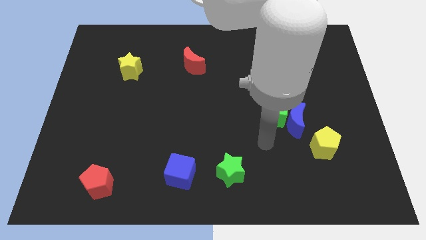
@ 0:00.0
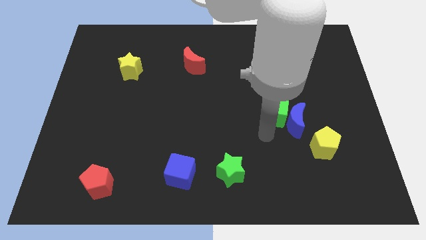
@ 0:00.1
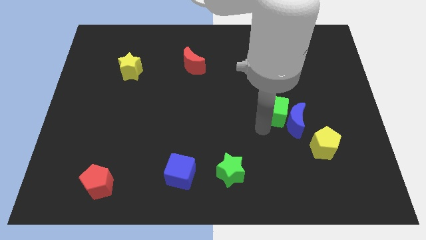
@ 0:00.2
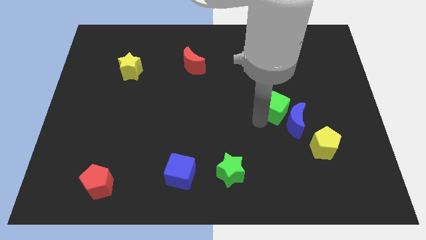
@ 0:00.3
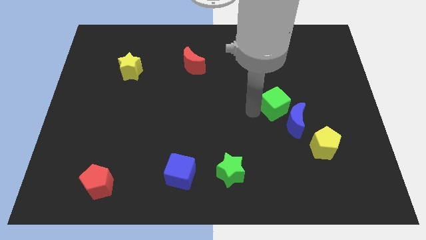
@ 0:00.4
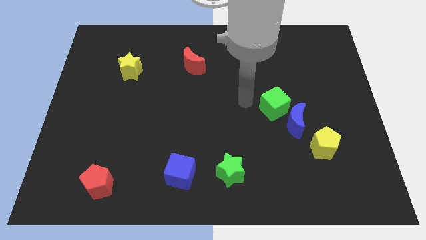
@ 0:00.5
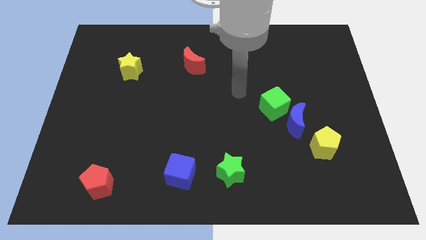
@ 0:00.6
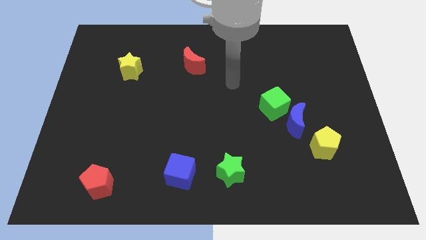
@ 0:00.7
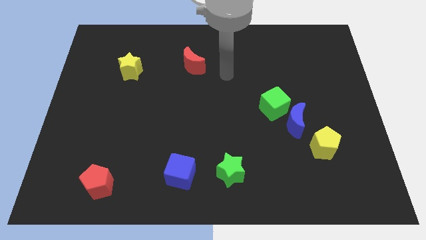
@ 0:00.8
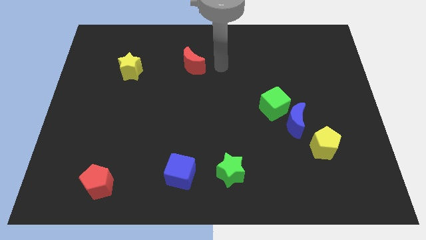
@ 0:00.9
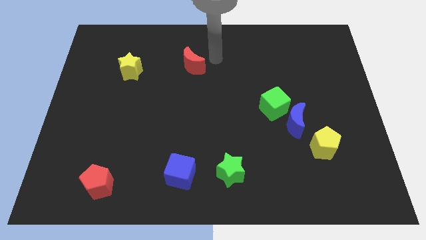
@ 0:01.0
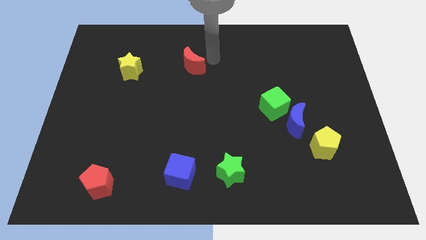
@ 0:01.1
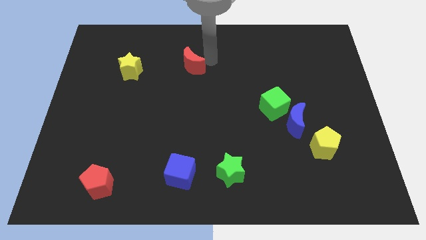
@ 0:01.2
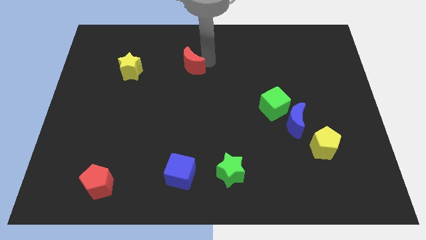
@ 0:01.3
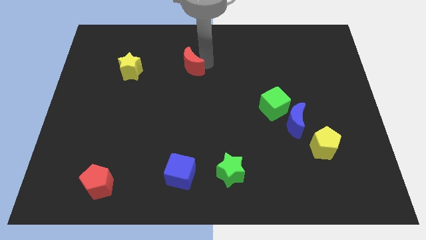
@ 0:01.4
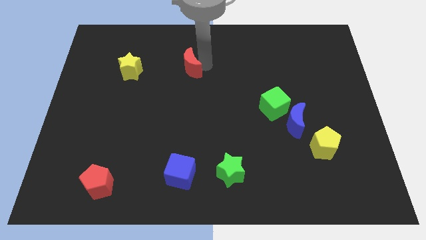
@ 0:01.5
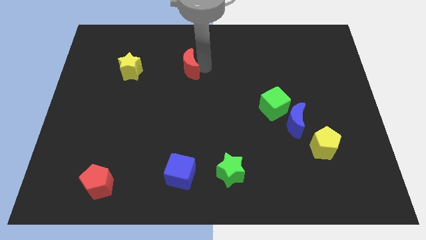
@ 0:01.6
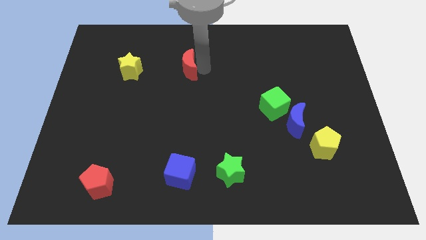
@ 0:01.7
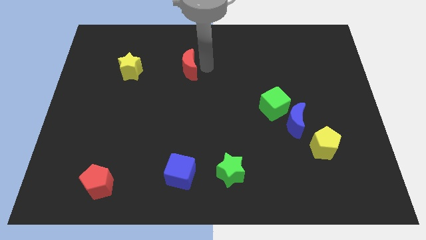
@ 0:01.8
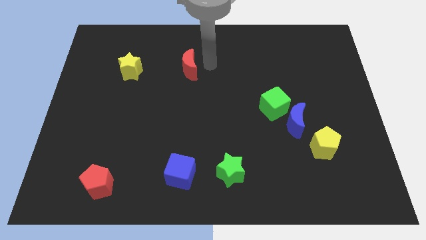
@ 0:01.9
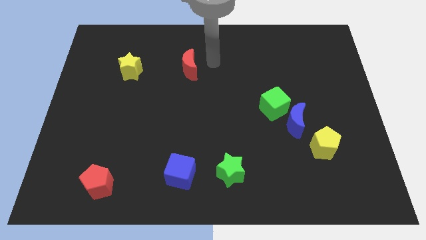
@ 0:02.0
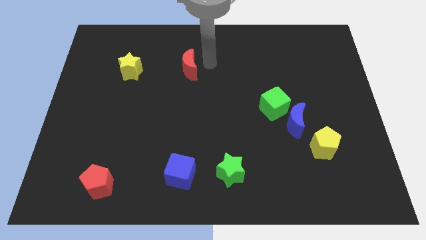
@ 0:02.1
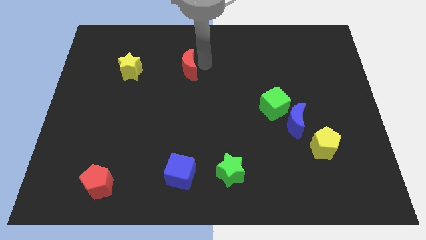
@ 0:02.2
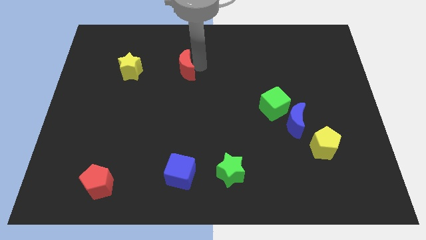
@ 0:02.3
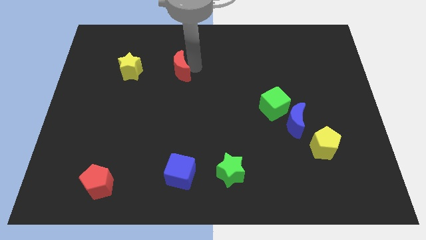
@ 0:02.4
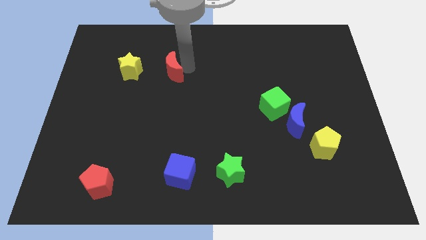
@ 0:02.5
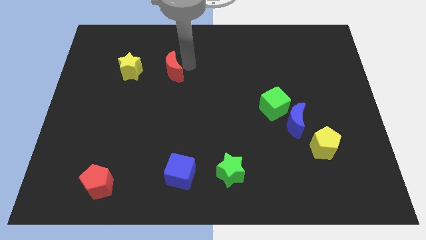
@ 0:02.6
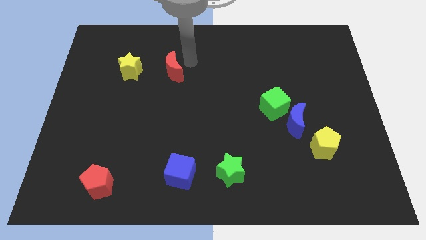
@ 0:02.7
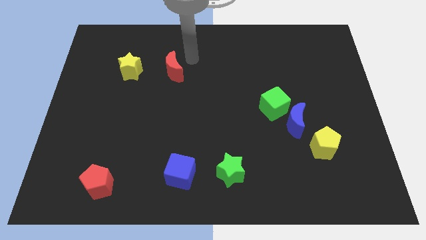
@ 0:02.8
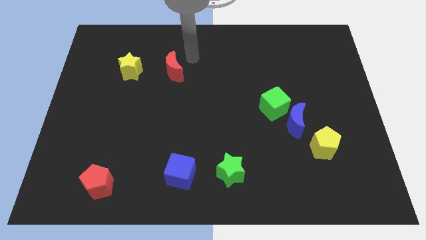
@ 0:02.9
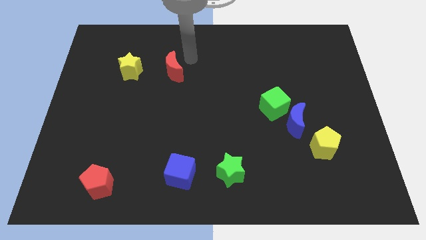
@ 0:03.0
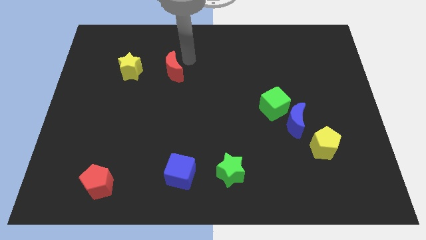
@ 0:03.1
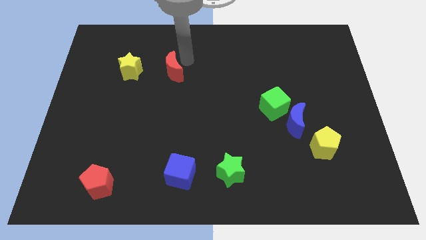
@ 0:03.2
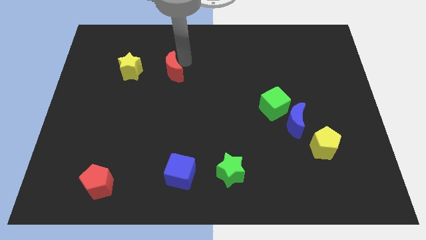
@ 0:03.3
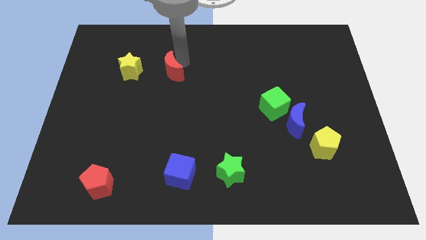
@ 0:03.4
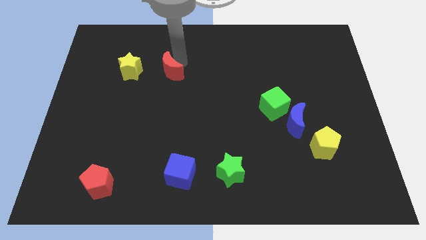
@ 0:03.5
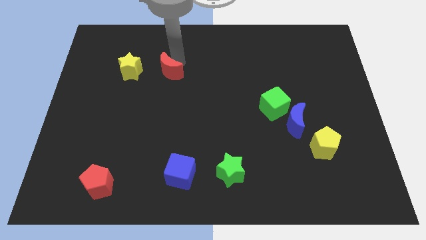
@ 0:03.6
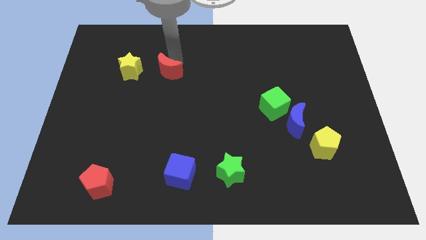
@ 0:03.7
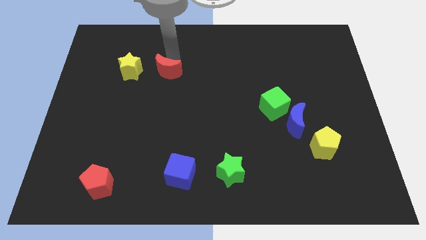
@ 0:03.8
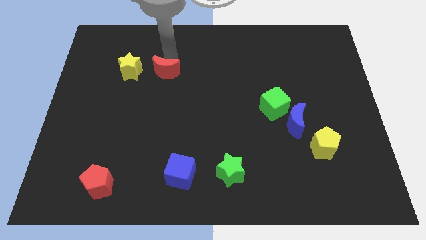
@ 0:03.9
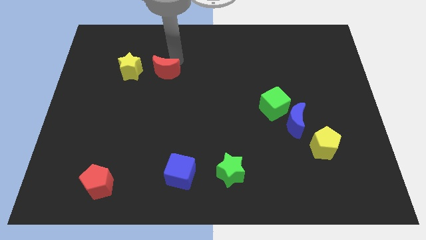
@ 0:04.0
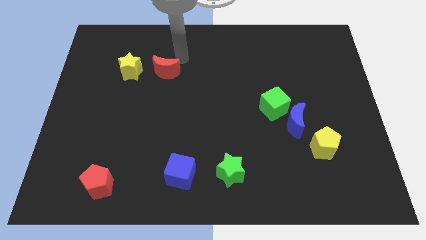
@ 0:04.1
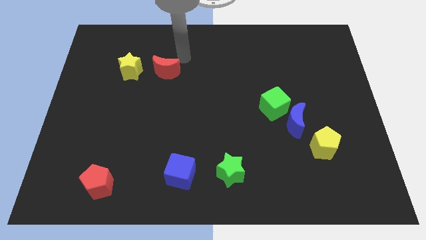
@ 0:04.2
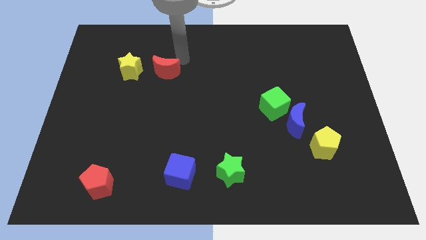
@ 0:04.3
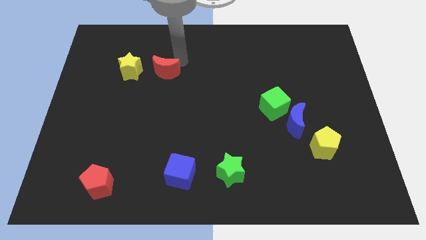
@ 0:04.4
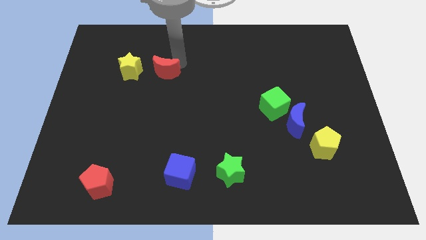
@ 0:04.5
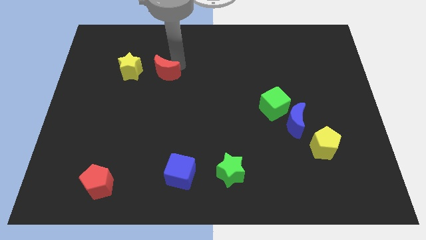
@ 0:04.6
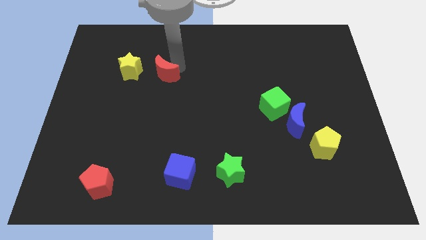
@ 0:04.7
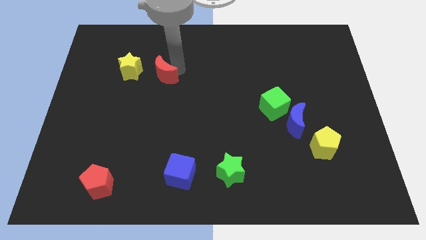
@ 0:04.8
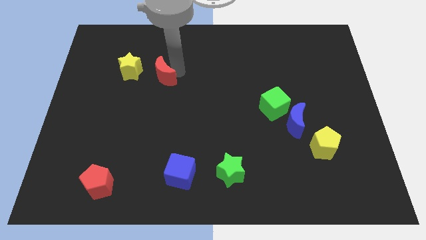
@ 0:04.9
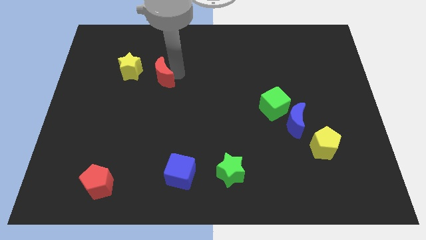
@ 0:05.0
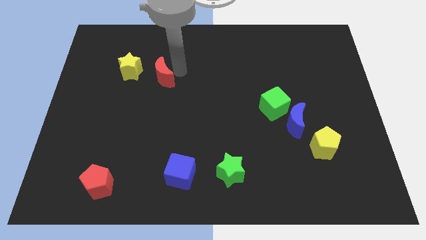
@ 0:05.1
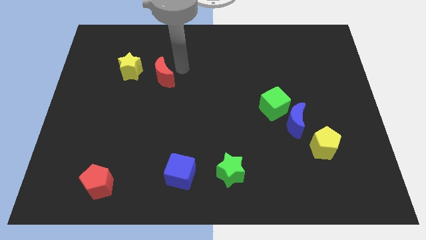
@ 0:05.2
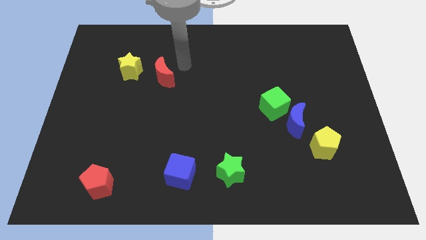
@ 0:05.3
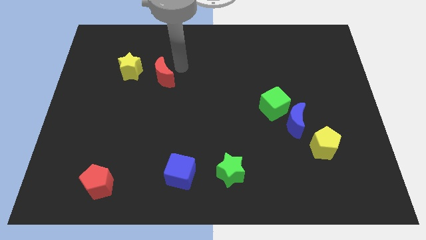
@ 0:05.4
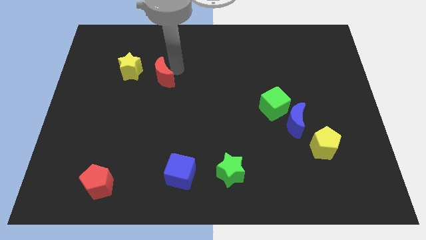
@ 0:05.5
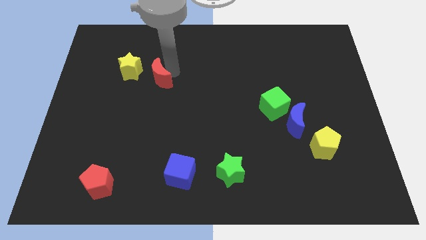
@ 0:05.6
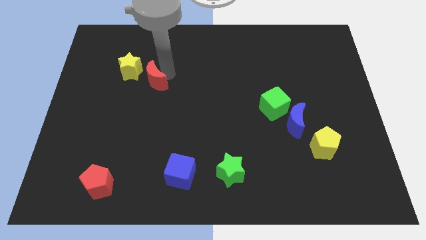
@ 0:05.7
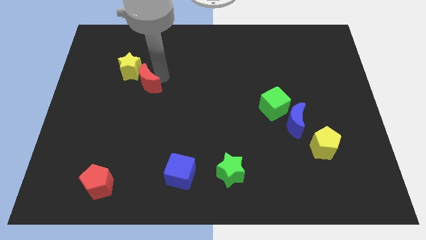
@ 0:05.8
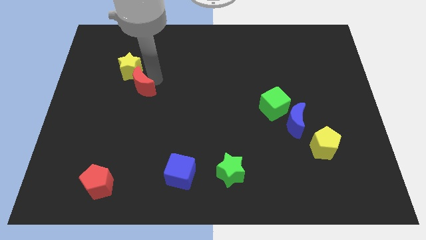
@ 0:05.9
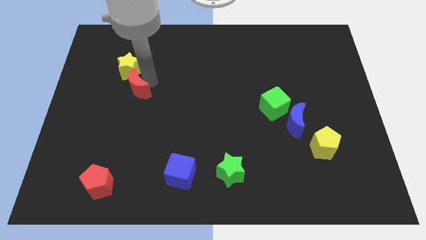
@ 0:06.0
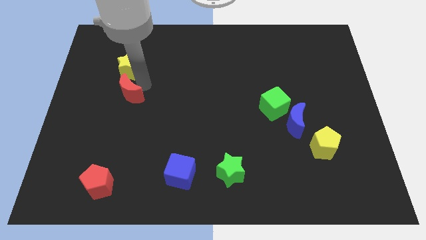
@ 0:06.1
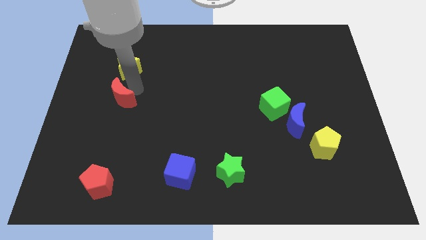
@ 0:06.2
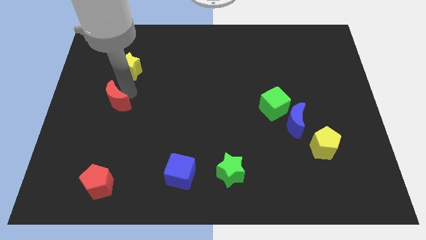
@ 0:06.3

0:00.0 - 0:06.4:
move the red moon diagonally down and to the left

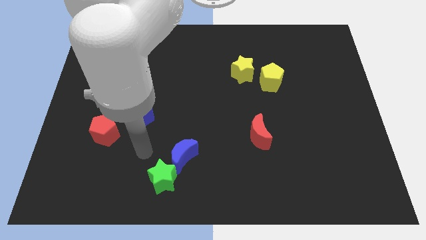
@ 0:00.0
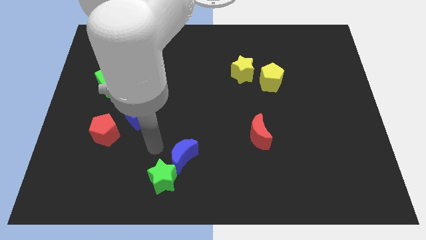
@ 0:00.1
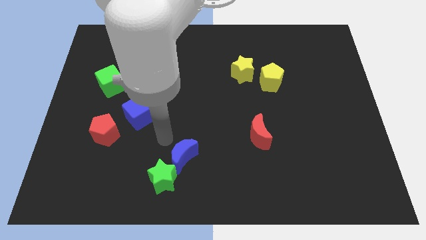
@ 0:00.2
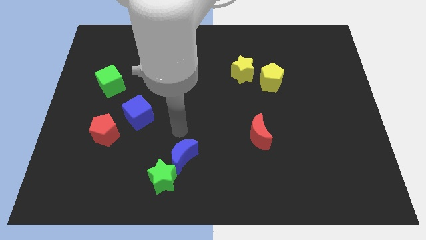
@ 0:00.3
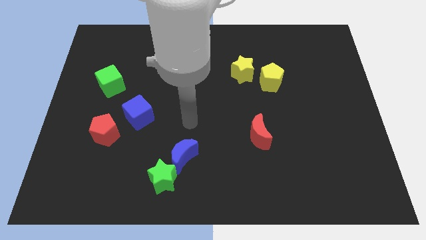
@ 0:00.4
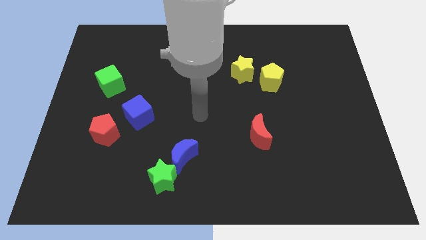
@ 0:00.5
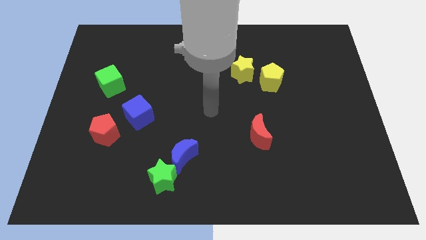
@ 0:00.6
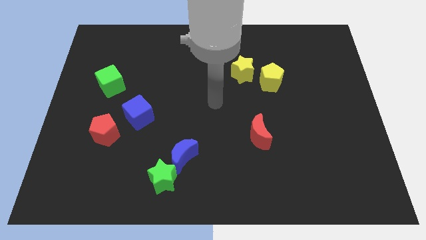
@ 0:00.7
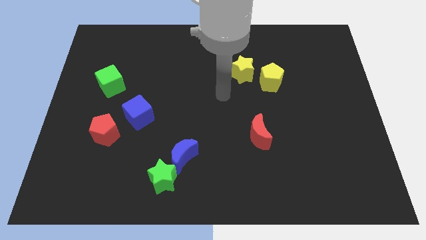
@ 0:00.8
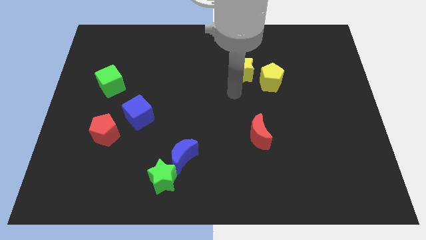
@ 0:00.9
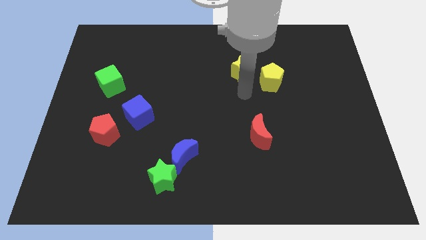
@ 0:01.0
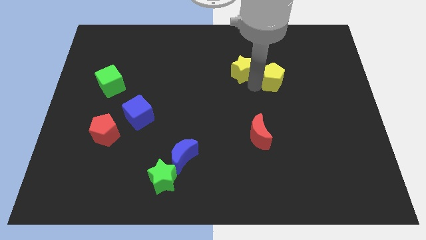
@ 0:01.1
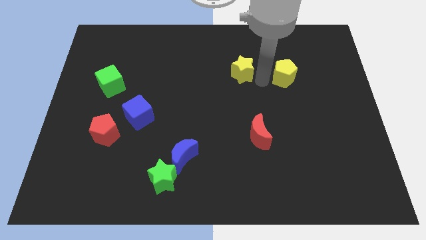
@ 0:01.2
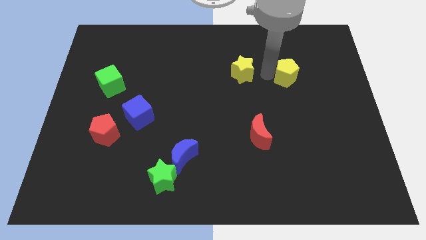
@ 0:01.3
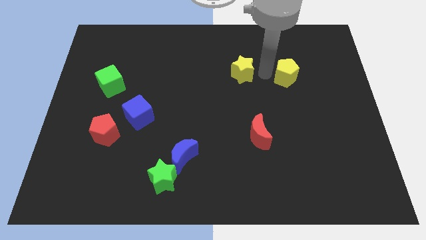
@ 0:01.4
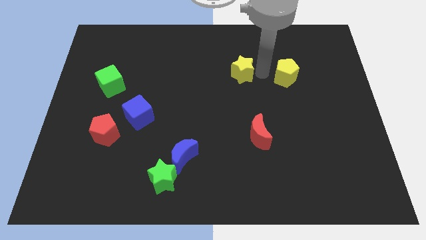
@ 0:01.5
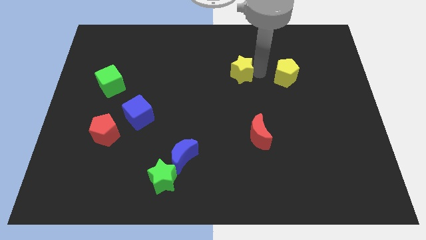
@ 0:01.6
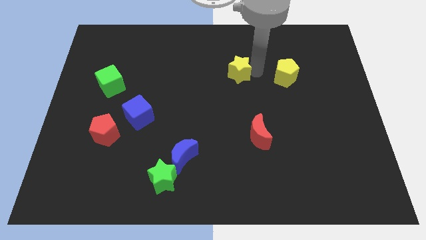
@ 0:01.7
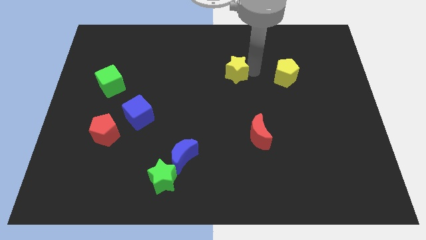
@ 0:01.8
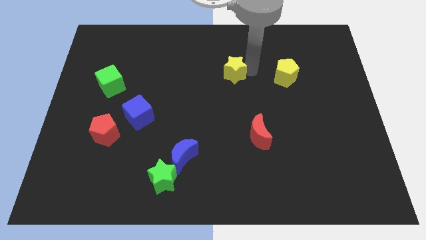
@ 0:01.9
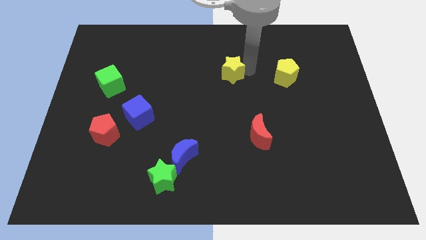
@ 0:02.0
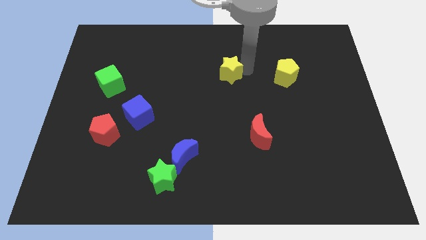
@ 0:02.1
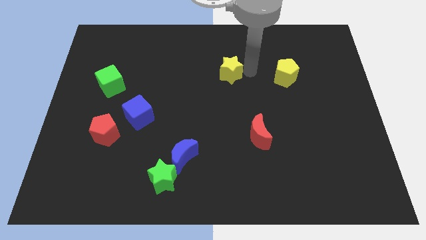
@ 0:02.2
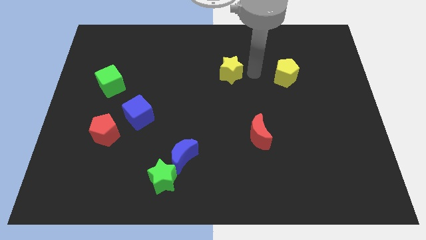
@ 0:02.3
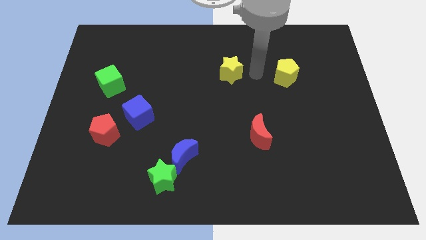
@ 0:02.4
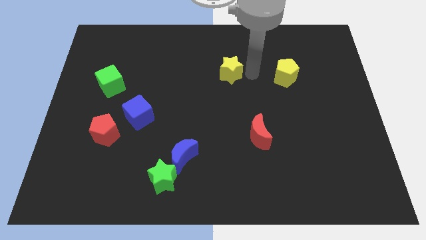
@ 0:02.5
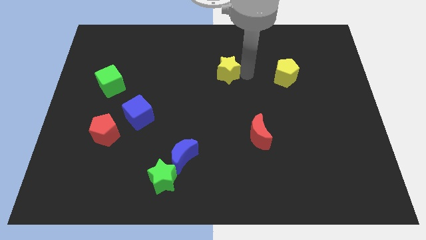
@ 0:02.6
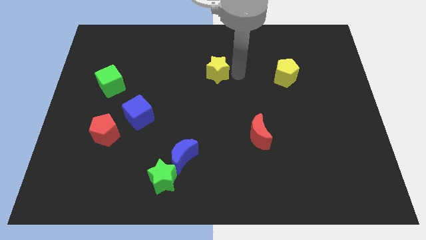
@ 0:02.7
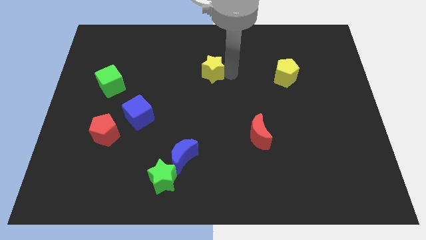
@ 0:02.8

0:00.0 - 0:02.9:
slightly push the yellow star left
